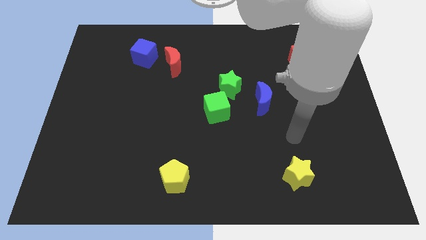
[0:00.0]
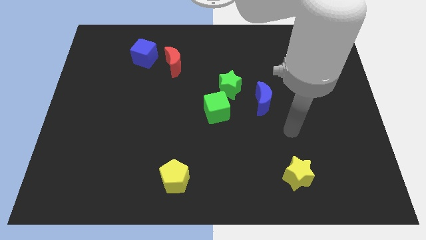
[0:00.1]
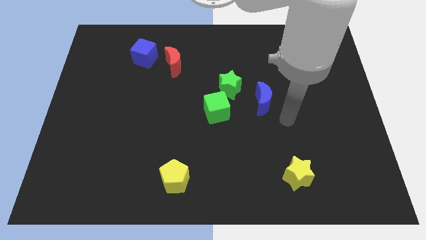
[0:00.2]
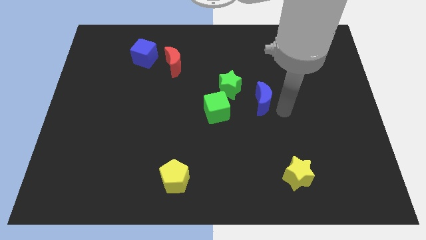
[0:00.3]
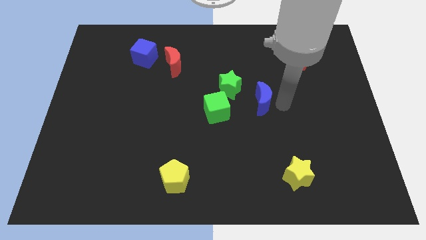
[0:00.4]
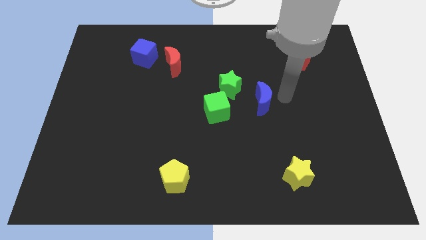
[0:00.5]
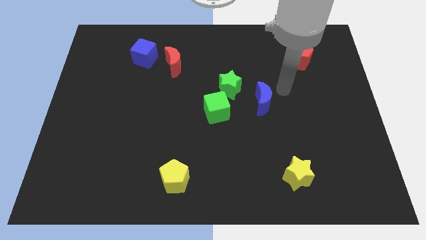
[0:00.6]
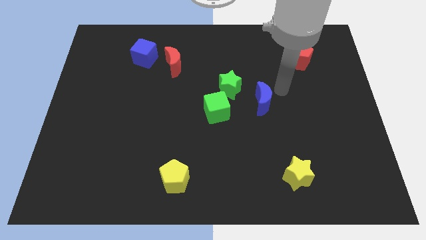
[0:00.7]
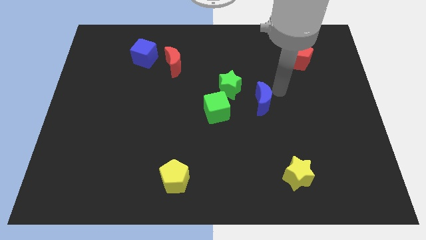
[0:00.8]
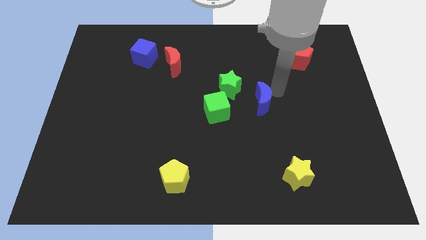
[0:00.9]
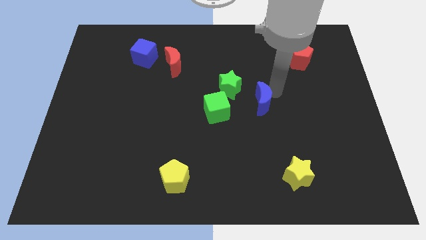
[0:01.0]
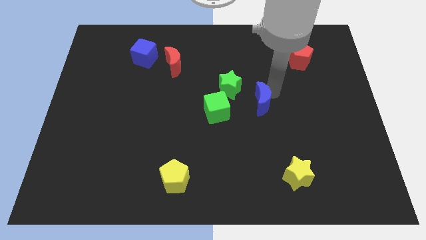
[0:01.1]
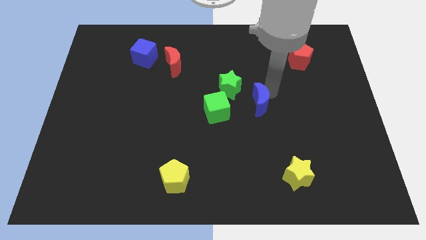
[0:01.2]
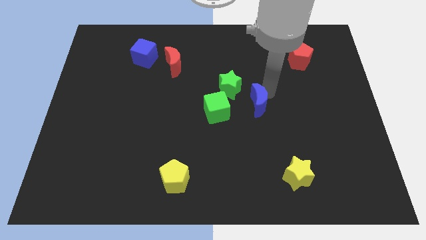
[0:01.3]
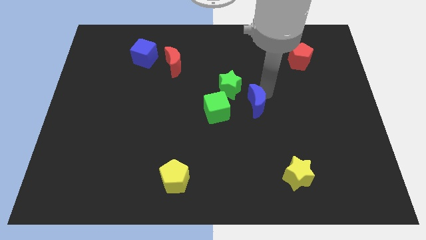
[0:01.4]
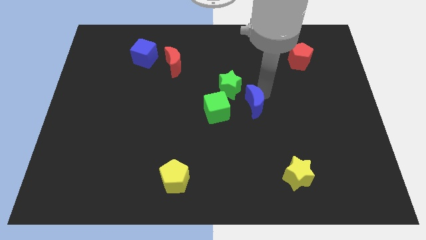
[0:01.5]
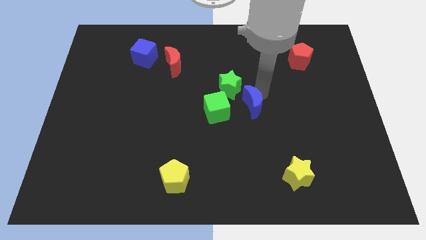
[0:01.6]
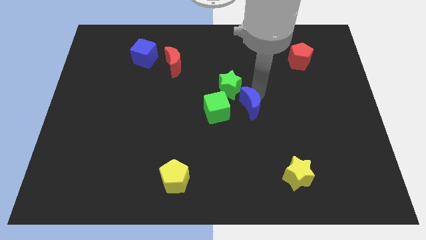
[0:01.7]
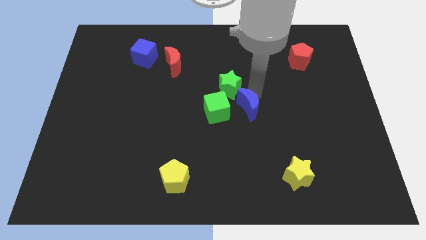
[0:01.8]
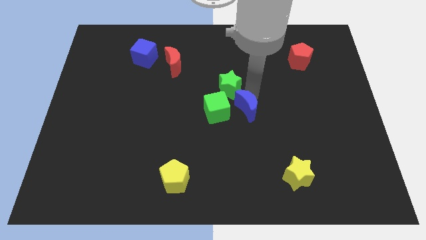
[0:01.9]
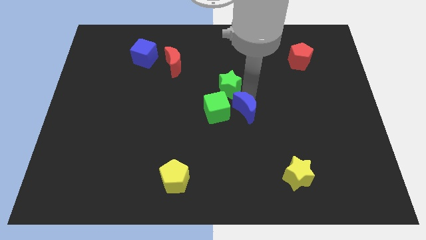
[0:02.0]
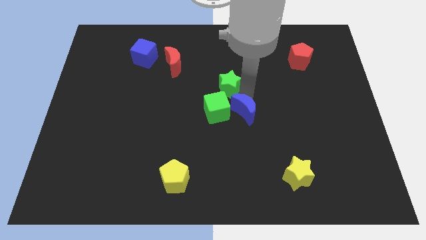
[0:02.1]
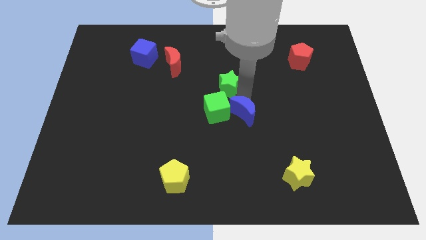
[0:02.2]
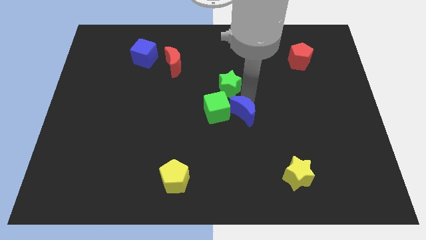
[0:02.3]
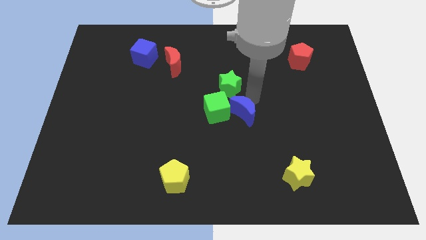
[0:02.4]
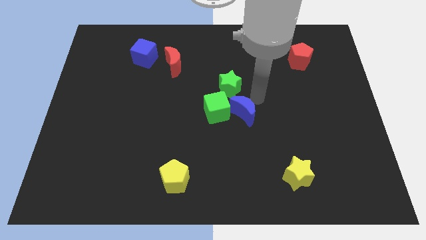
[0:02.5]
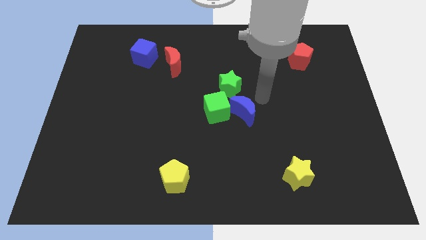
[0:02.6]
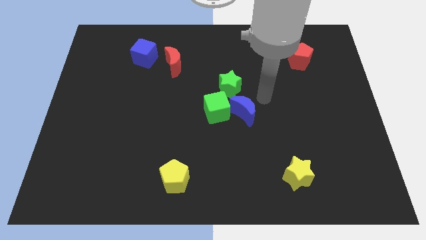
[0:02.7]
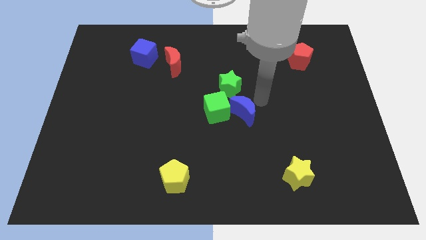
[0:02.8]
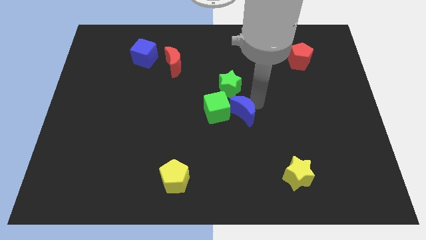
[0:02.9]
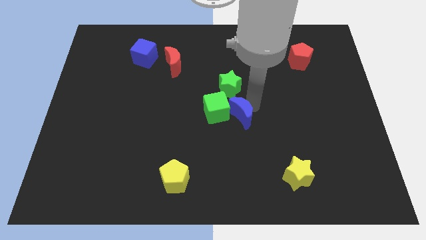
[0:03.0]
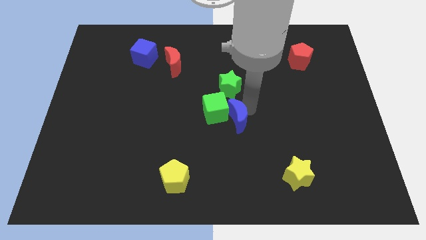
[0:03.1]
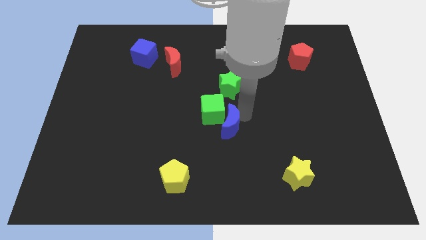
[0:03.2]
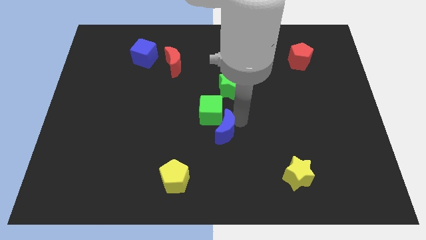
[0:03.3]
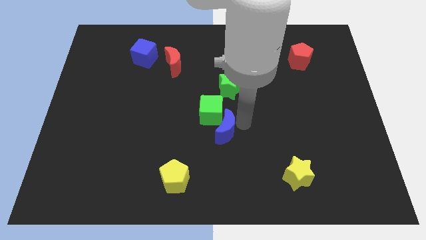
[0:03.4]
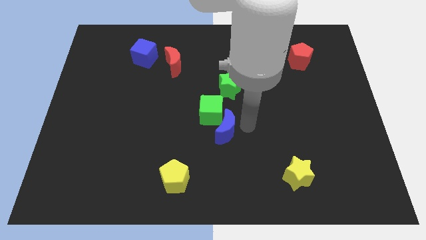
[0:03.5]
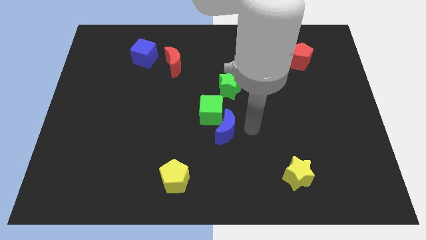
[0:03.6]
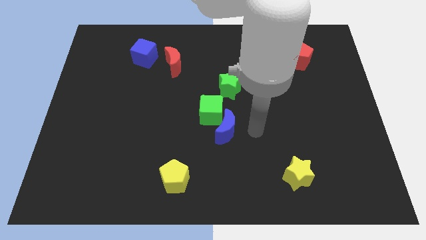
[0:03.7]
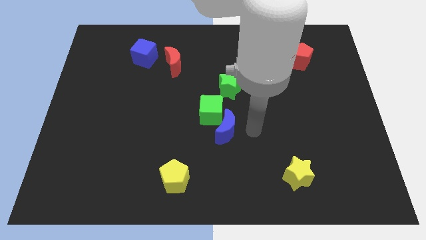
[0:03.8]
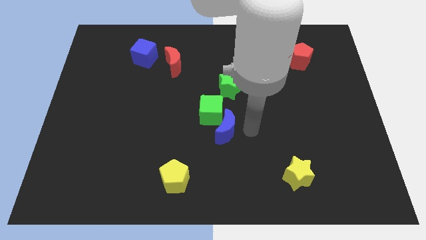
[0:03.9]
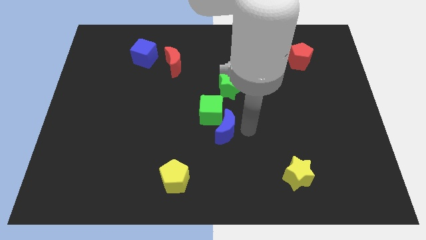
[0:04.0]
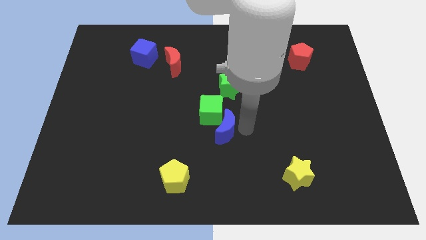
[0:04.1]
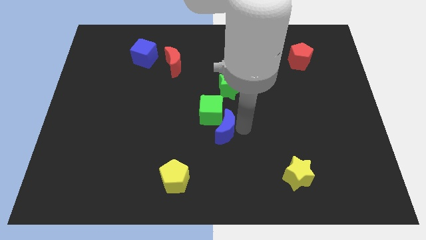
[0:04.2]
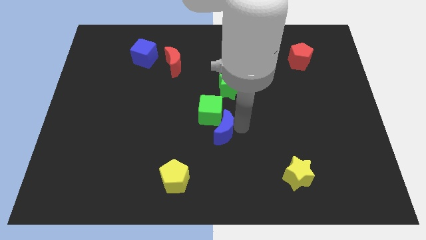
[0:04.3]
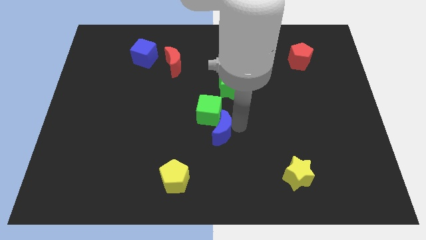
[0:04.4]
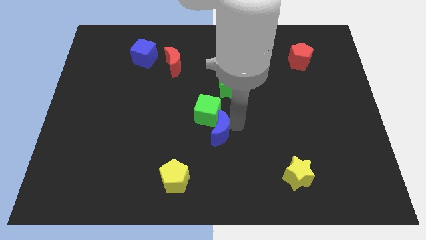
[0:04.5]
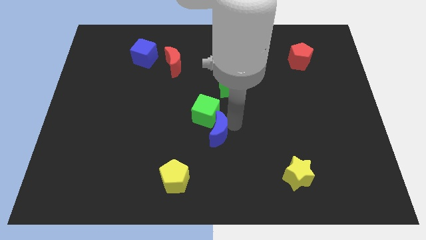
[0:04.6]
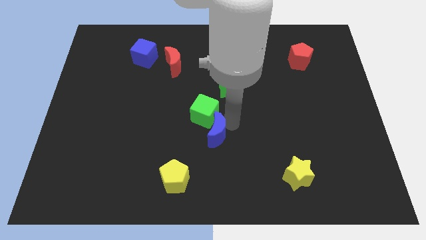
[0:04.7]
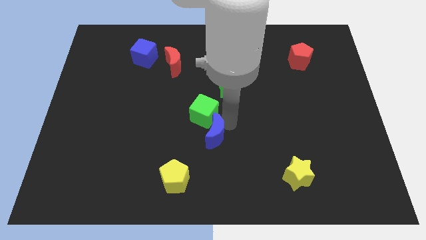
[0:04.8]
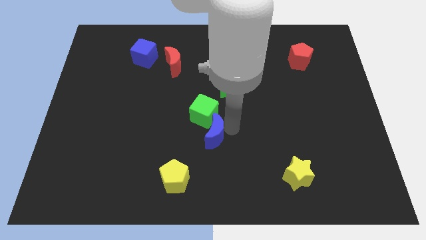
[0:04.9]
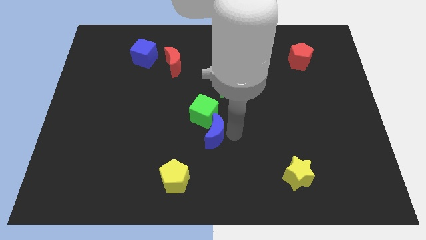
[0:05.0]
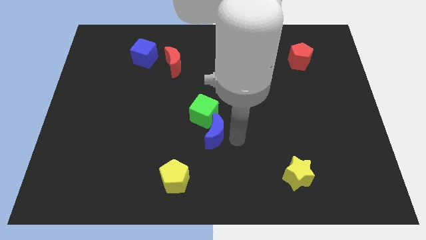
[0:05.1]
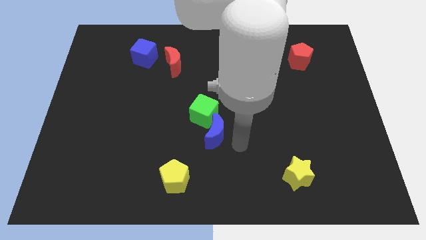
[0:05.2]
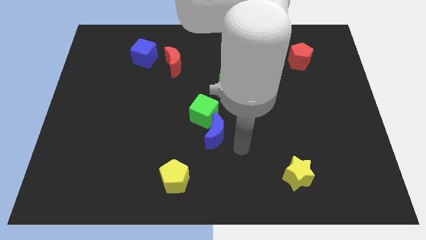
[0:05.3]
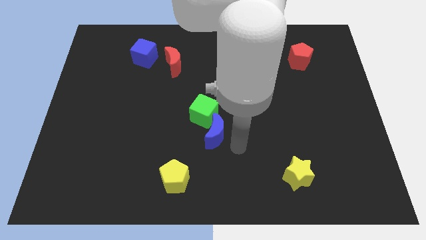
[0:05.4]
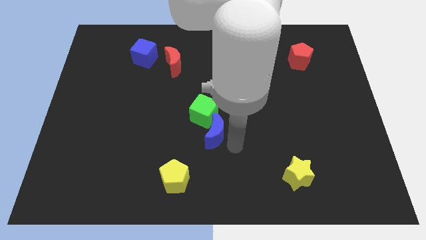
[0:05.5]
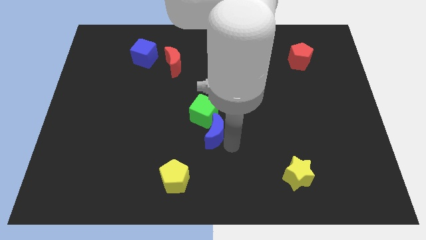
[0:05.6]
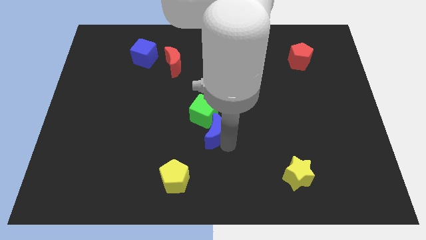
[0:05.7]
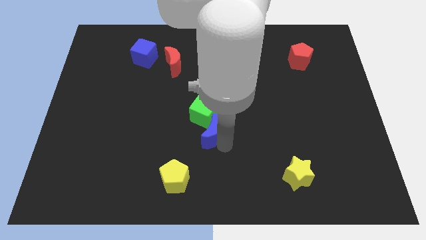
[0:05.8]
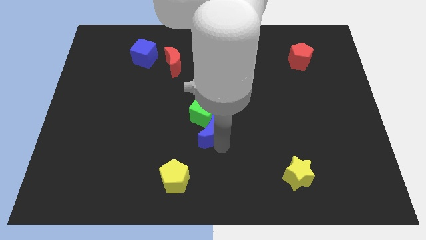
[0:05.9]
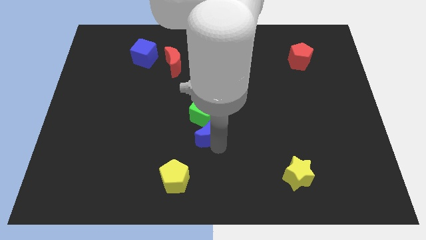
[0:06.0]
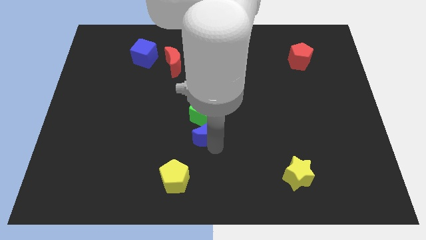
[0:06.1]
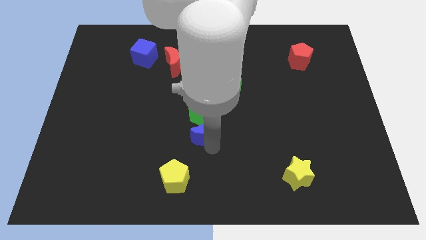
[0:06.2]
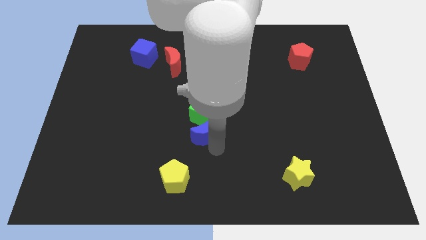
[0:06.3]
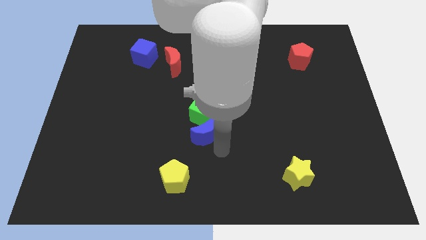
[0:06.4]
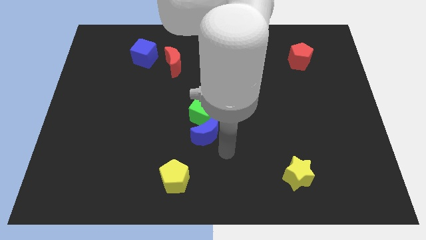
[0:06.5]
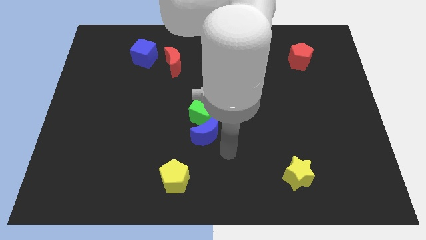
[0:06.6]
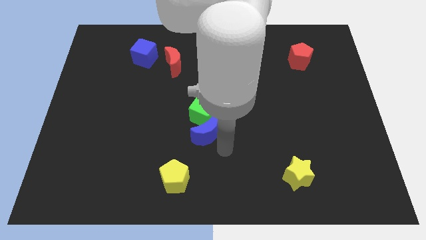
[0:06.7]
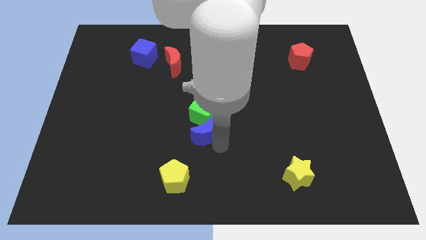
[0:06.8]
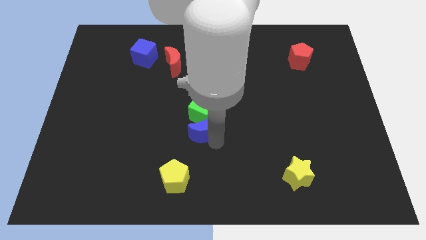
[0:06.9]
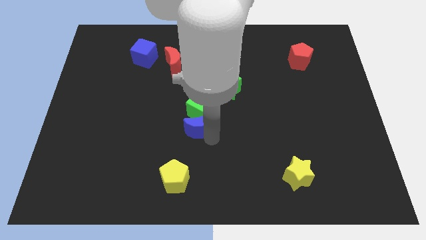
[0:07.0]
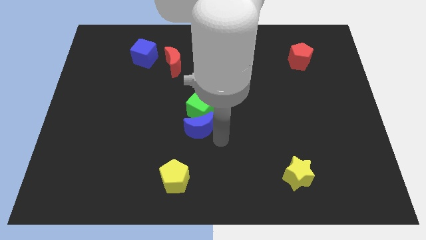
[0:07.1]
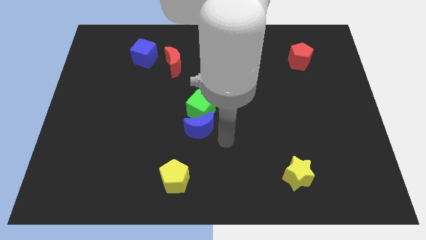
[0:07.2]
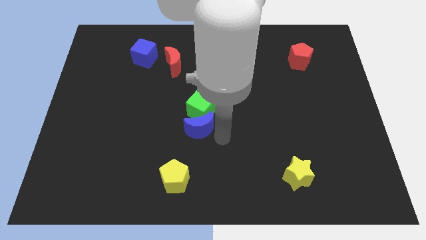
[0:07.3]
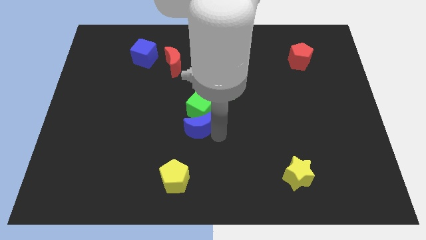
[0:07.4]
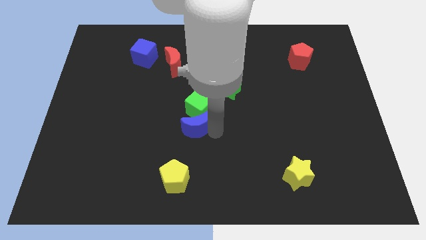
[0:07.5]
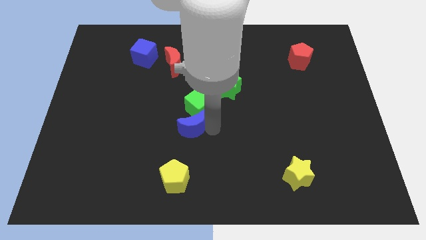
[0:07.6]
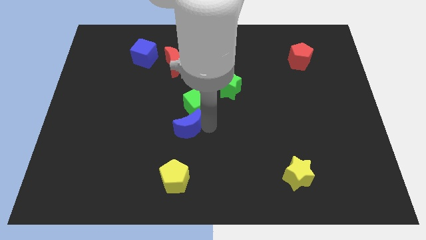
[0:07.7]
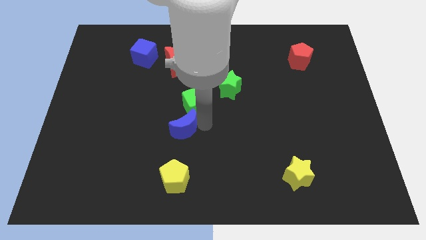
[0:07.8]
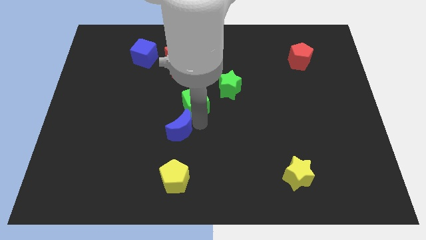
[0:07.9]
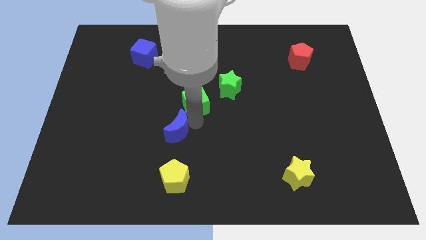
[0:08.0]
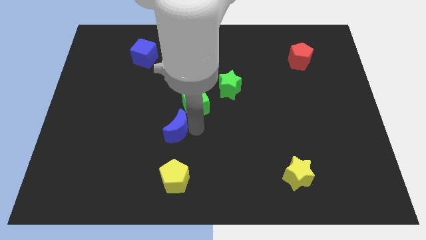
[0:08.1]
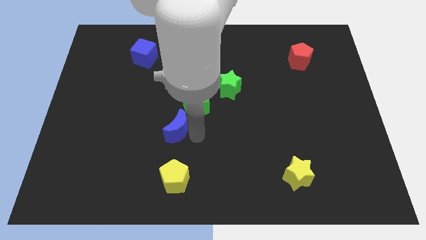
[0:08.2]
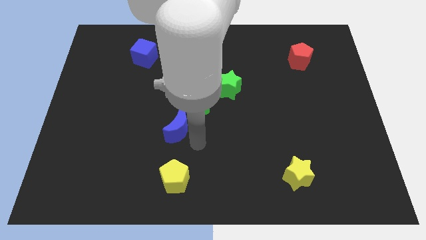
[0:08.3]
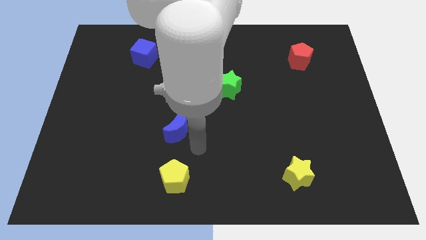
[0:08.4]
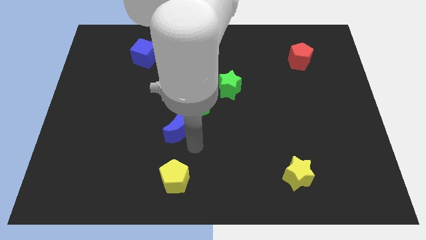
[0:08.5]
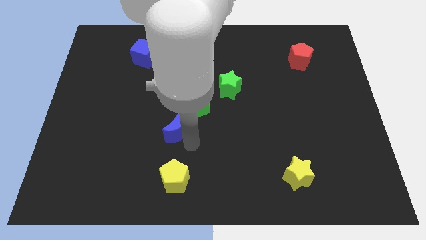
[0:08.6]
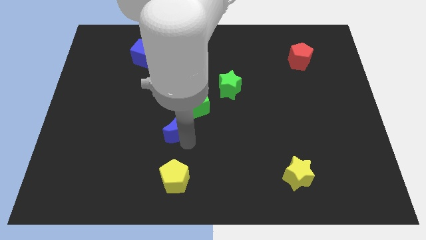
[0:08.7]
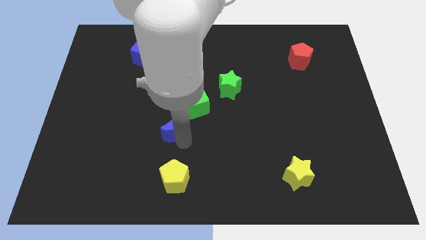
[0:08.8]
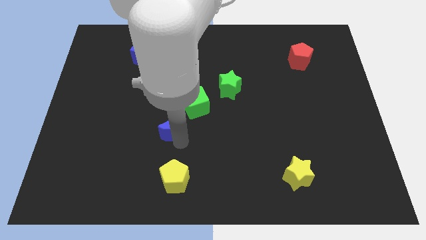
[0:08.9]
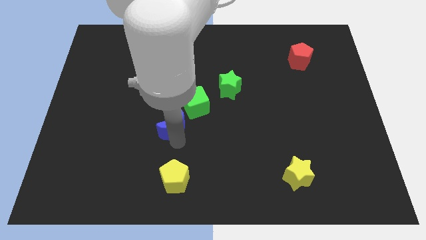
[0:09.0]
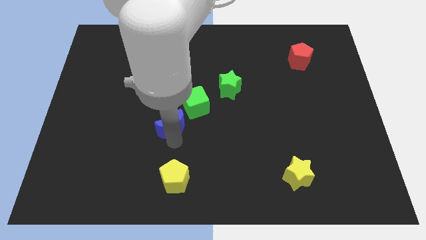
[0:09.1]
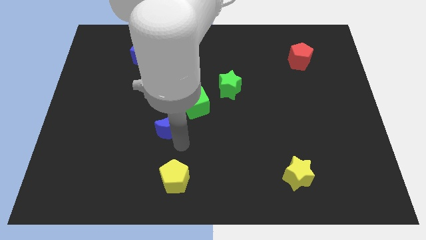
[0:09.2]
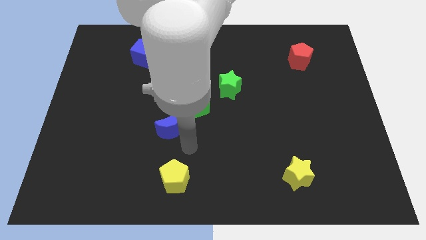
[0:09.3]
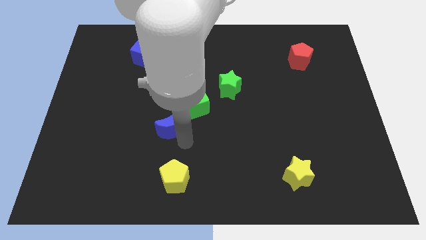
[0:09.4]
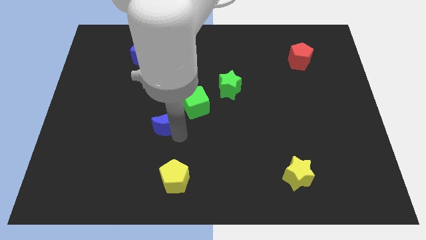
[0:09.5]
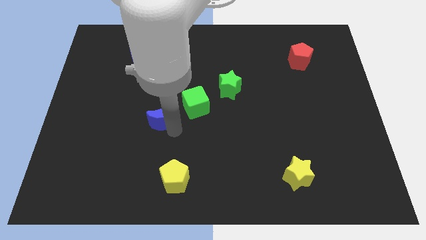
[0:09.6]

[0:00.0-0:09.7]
put the blue moon to the left of the green cube
